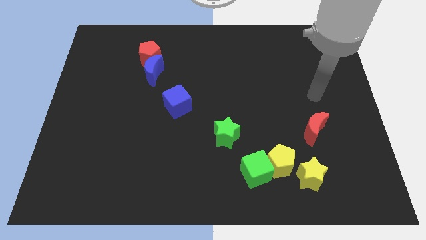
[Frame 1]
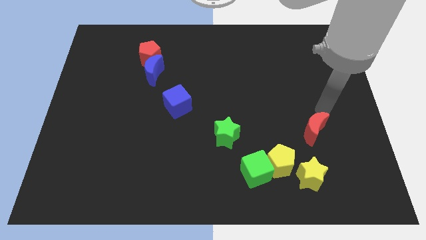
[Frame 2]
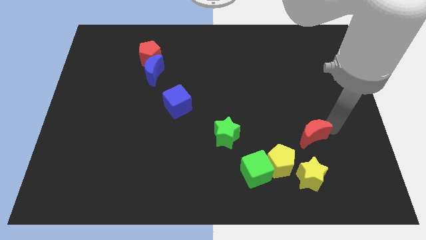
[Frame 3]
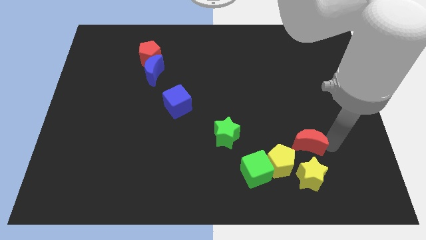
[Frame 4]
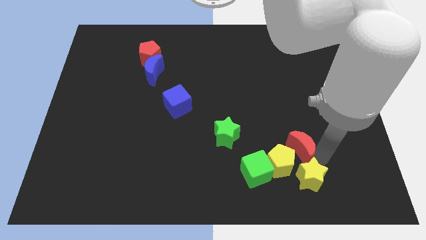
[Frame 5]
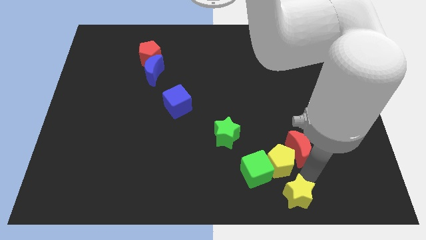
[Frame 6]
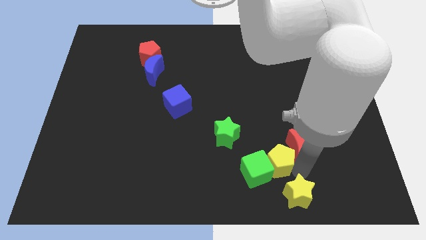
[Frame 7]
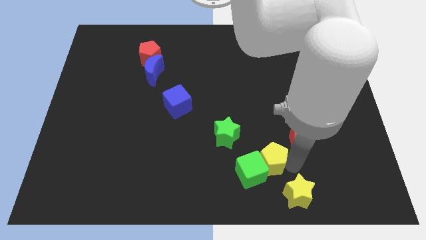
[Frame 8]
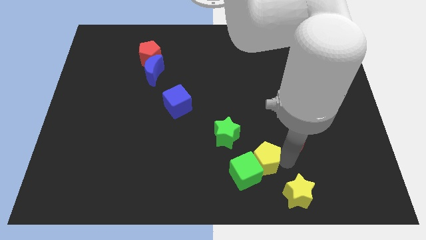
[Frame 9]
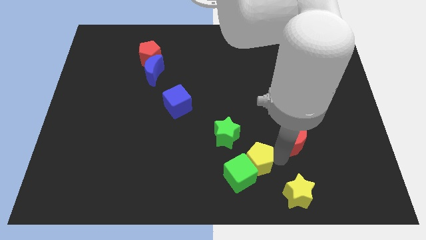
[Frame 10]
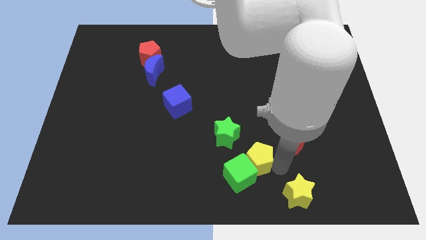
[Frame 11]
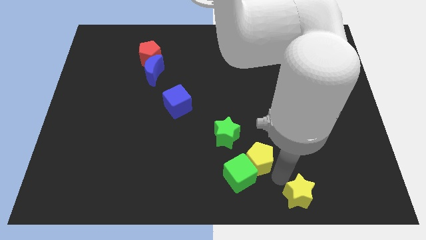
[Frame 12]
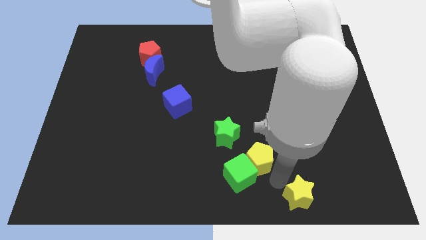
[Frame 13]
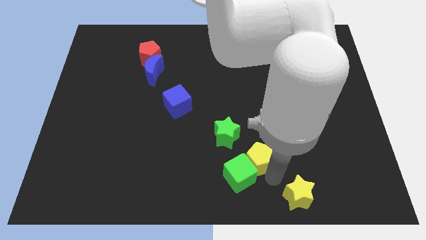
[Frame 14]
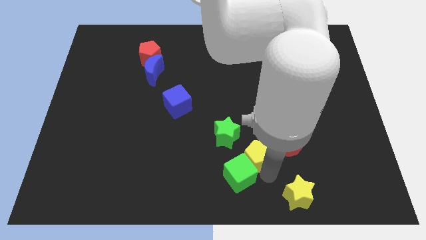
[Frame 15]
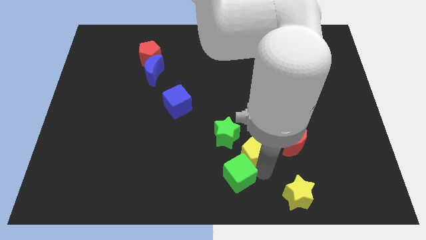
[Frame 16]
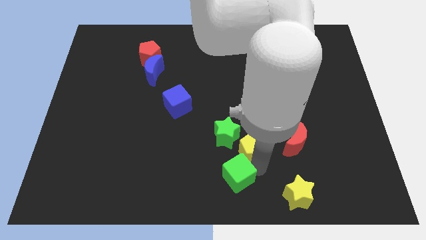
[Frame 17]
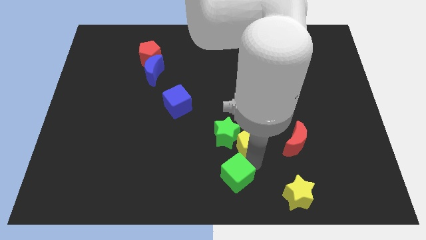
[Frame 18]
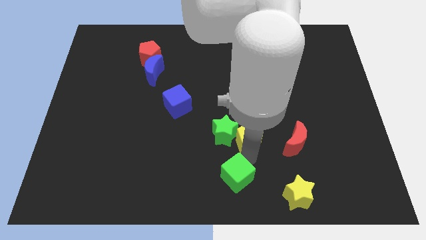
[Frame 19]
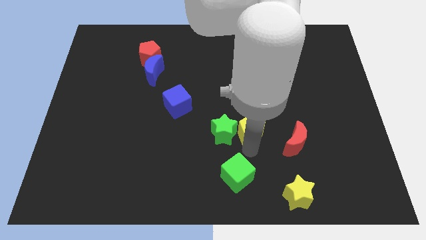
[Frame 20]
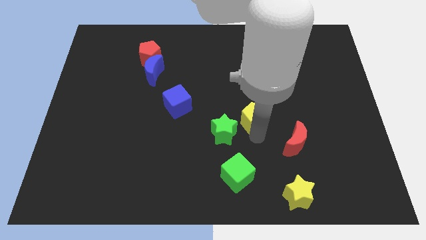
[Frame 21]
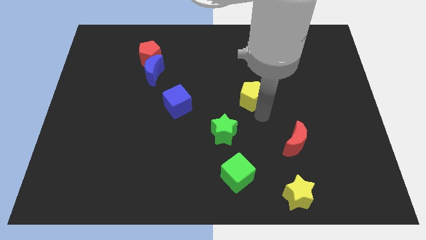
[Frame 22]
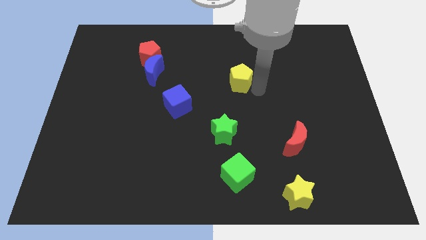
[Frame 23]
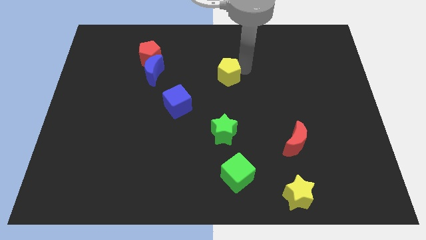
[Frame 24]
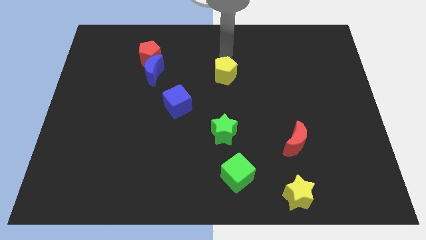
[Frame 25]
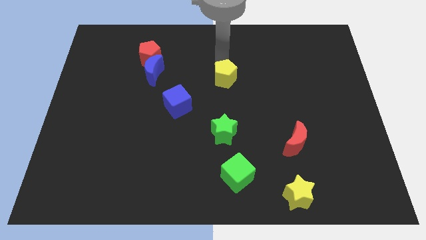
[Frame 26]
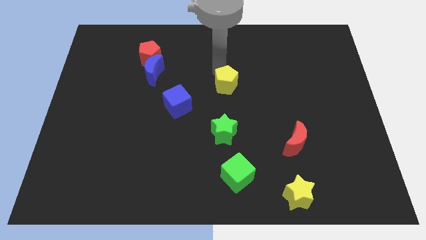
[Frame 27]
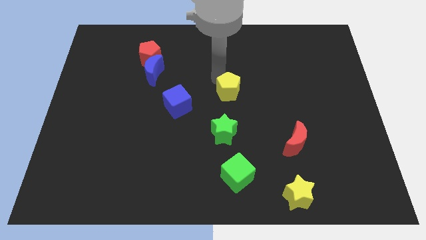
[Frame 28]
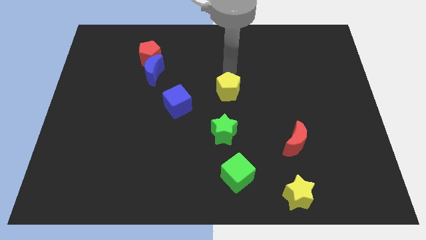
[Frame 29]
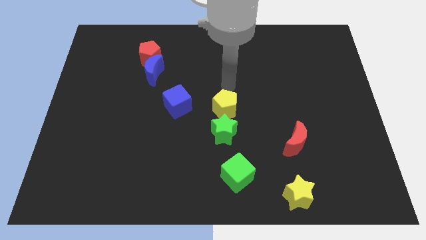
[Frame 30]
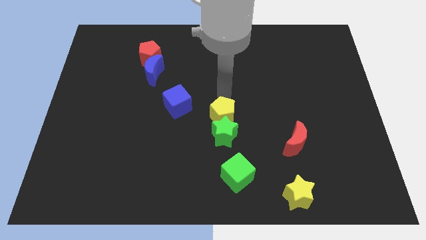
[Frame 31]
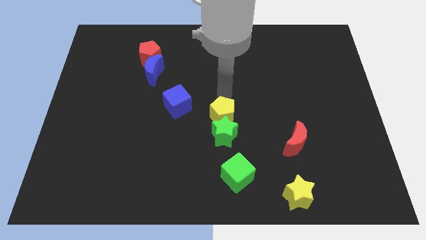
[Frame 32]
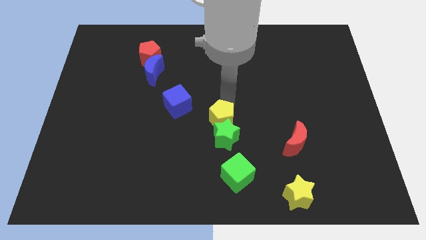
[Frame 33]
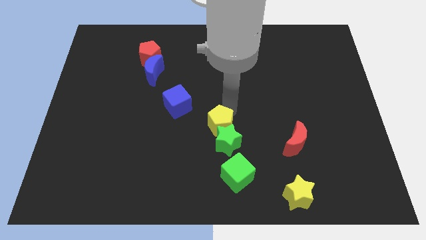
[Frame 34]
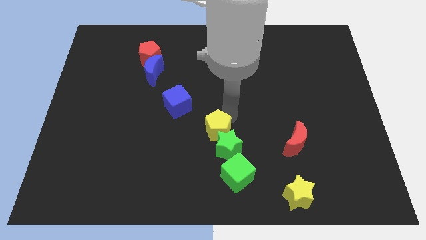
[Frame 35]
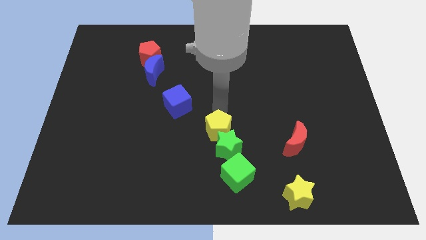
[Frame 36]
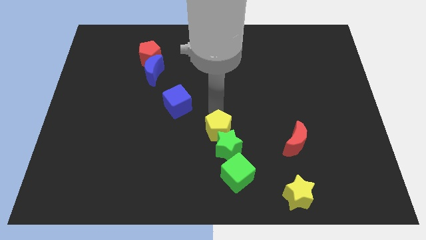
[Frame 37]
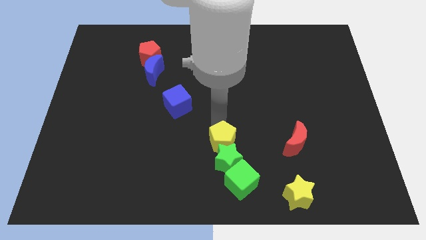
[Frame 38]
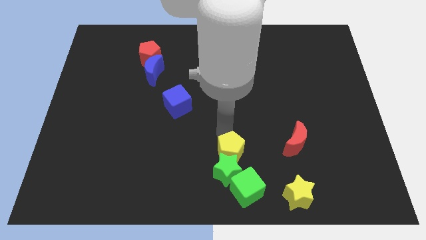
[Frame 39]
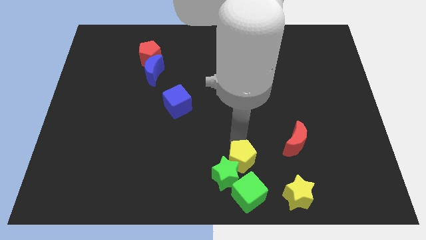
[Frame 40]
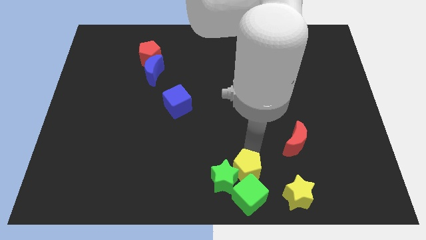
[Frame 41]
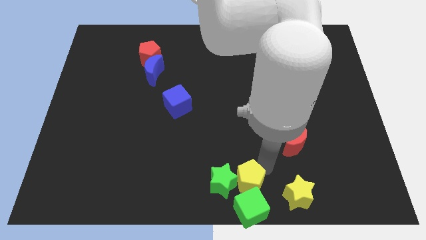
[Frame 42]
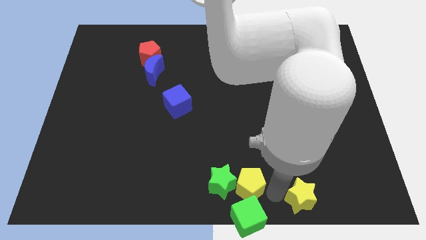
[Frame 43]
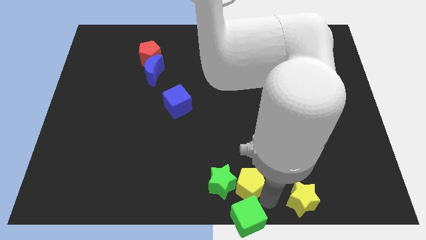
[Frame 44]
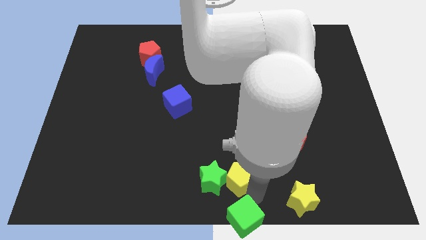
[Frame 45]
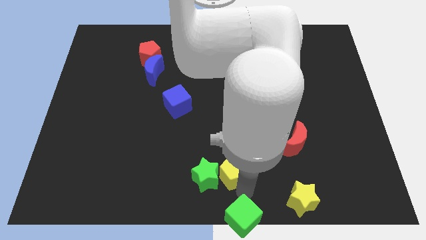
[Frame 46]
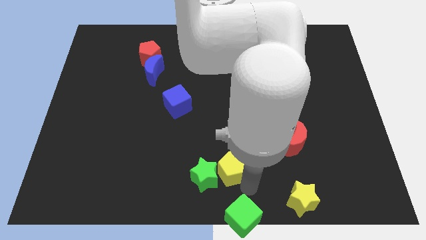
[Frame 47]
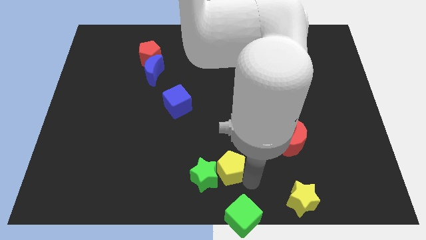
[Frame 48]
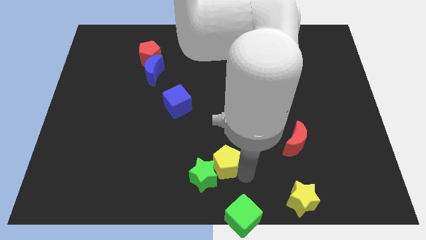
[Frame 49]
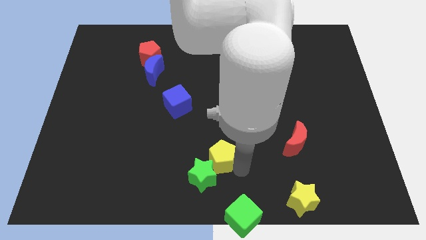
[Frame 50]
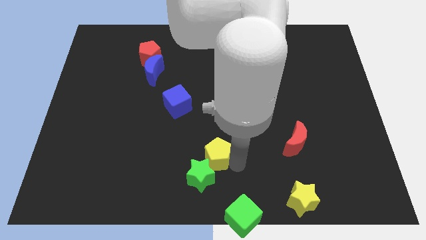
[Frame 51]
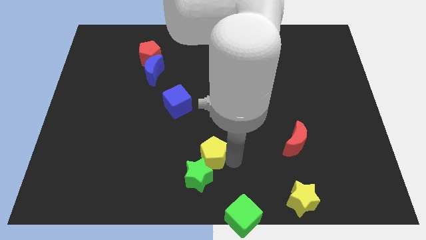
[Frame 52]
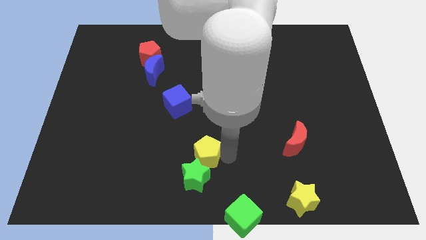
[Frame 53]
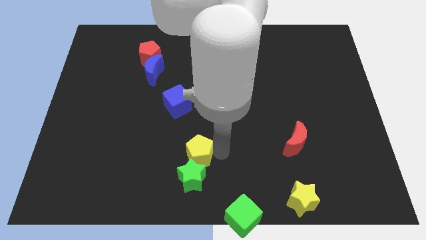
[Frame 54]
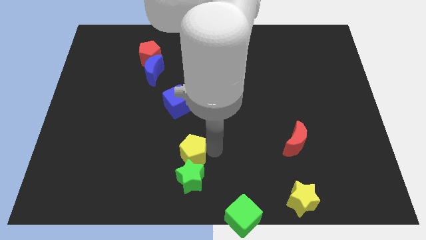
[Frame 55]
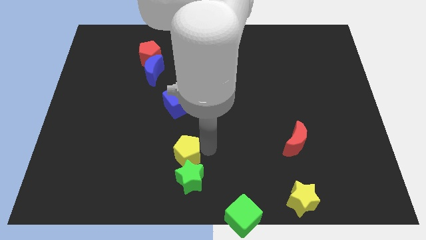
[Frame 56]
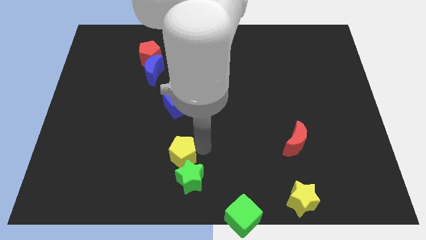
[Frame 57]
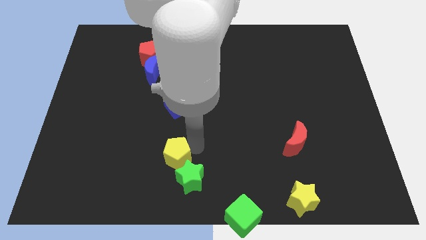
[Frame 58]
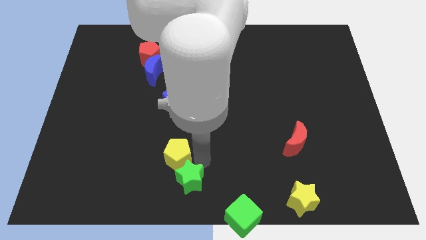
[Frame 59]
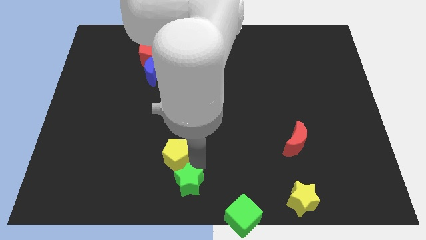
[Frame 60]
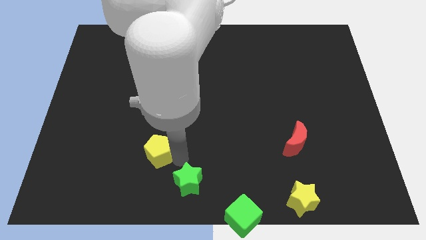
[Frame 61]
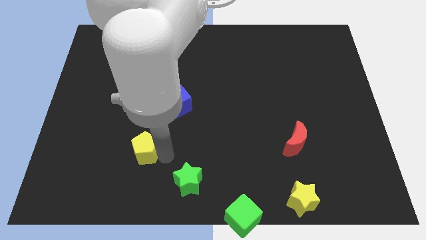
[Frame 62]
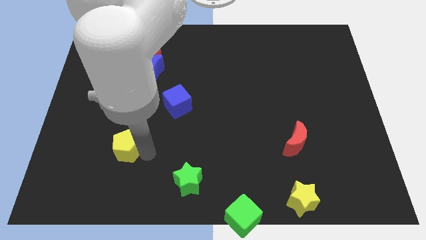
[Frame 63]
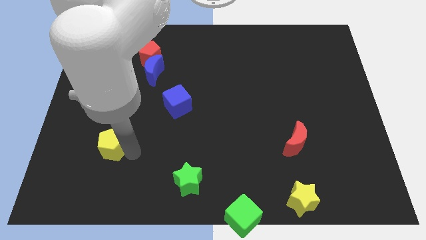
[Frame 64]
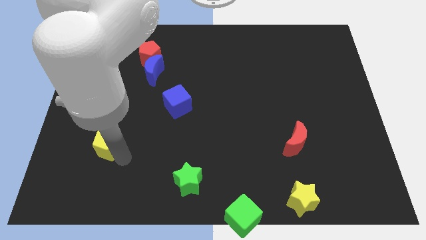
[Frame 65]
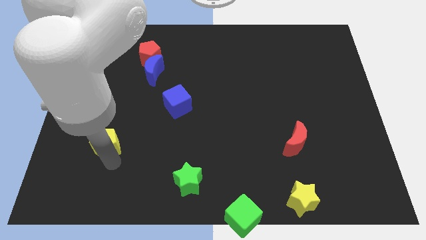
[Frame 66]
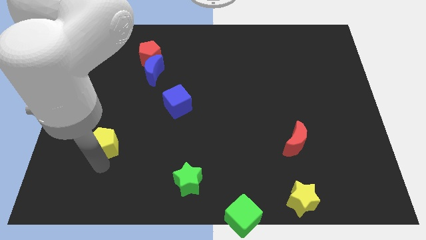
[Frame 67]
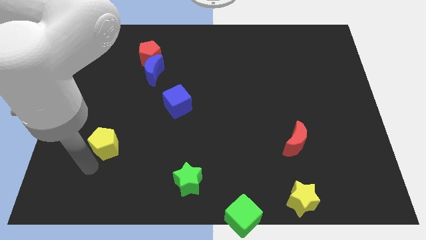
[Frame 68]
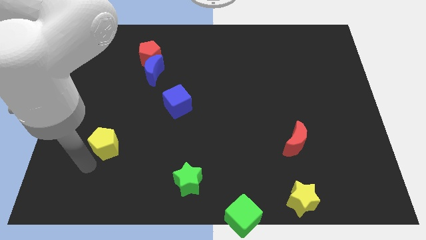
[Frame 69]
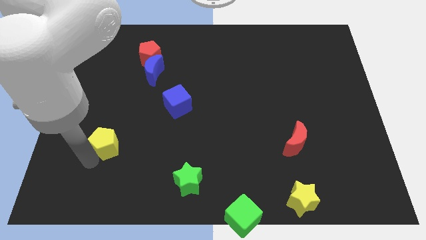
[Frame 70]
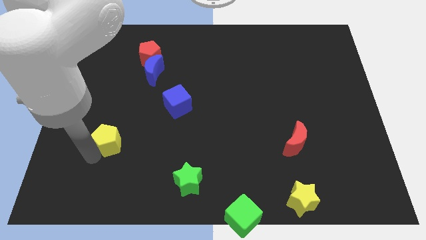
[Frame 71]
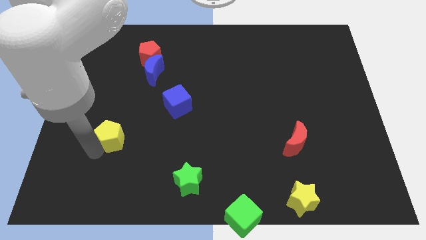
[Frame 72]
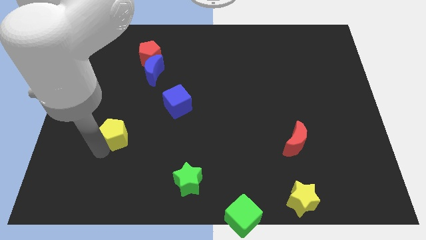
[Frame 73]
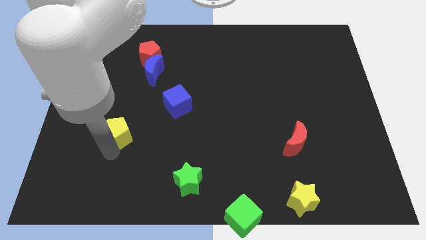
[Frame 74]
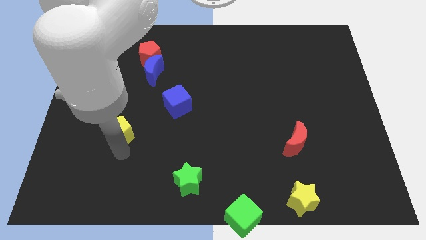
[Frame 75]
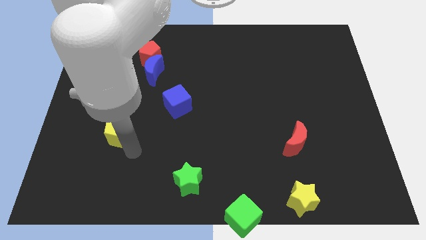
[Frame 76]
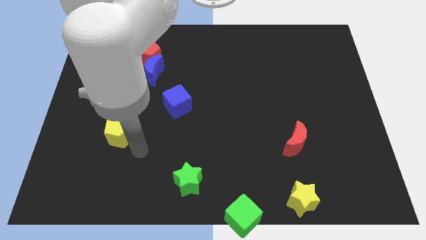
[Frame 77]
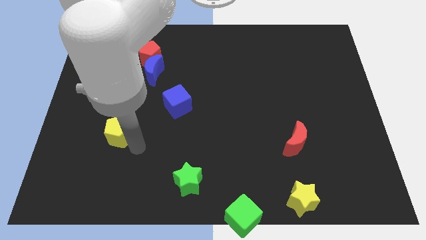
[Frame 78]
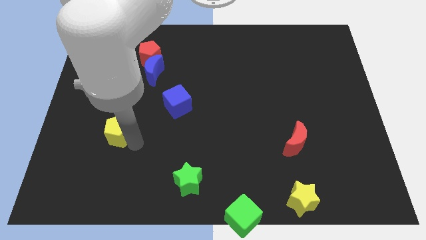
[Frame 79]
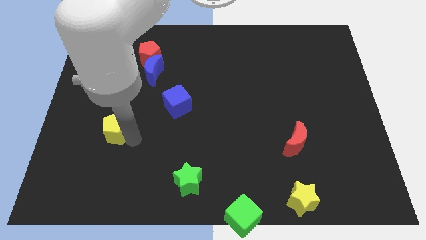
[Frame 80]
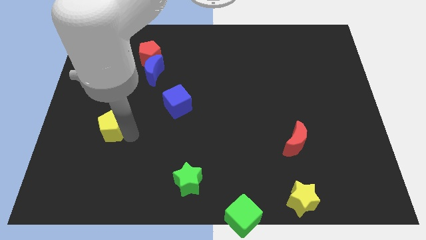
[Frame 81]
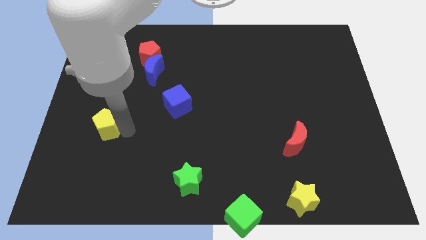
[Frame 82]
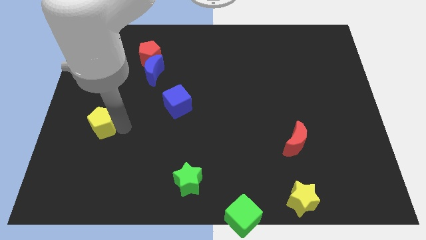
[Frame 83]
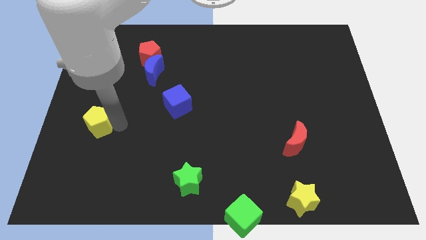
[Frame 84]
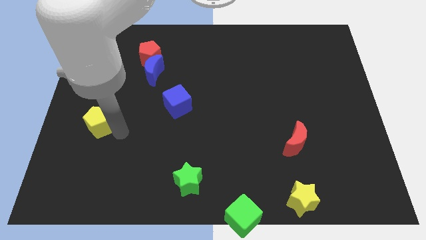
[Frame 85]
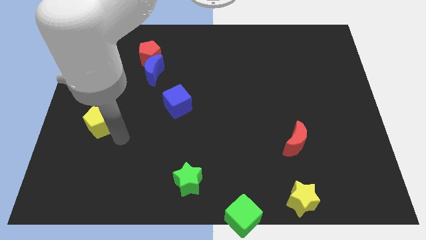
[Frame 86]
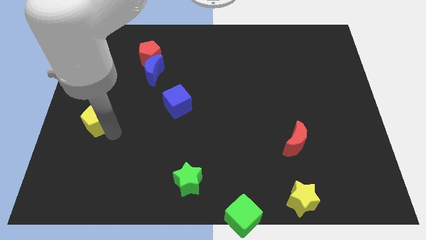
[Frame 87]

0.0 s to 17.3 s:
put the yellow pentagon to the left side
